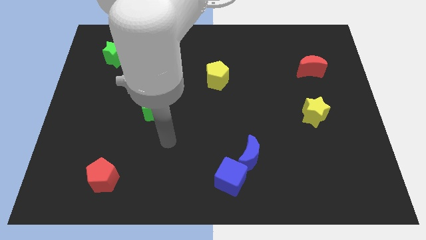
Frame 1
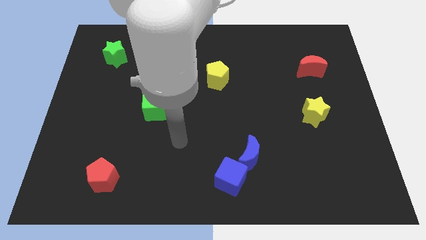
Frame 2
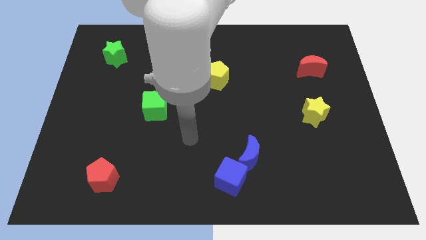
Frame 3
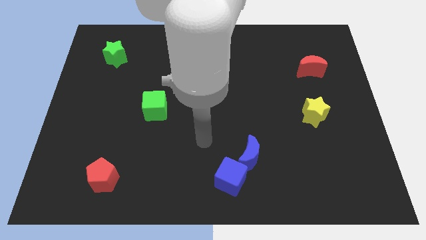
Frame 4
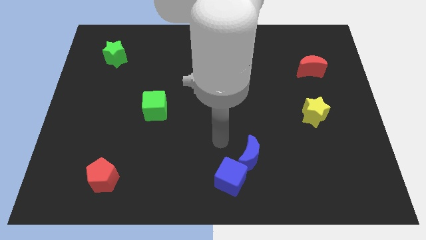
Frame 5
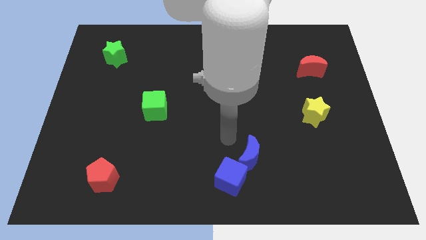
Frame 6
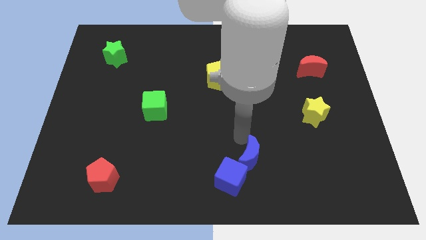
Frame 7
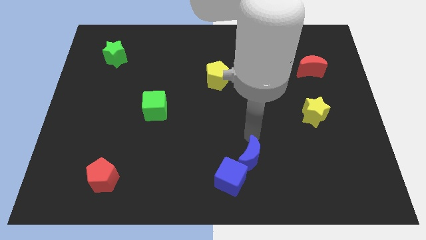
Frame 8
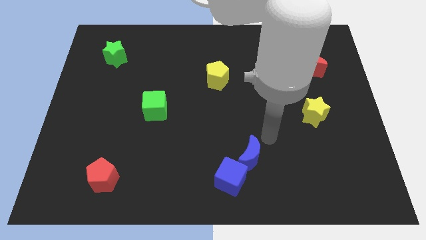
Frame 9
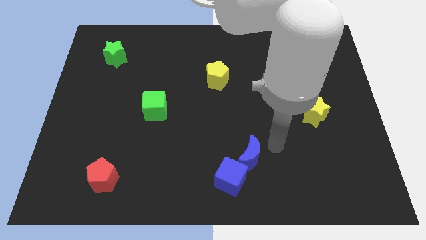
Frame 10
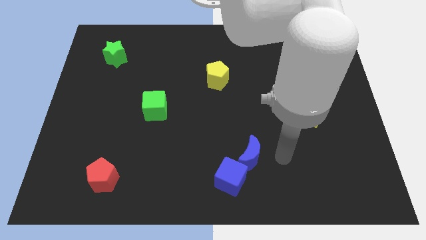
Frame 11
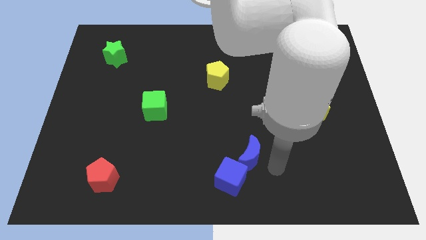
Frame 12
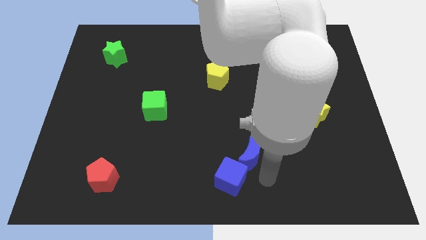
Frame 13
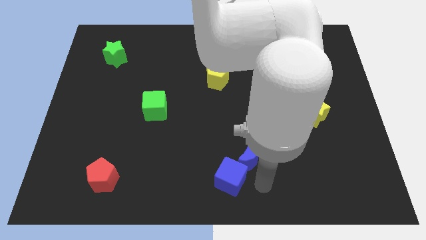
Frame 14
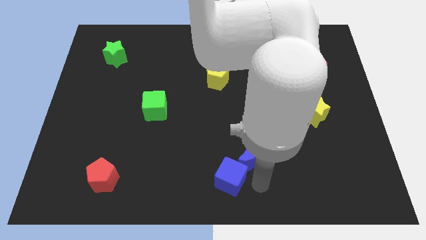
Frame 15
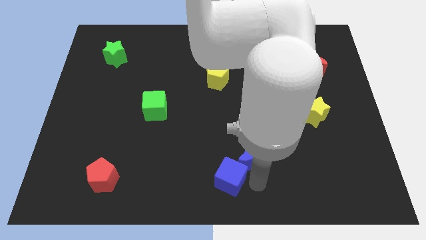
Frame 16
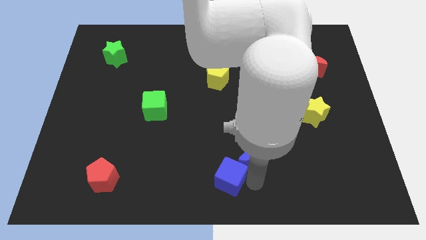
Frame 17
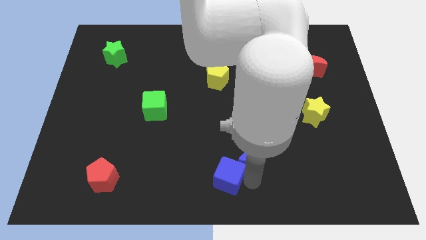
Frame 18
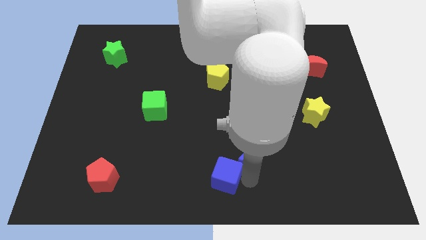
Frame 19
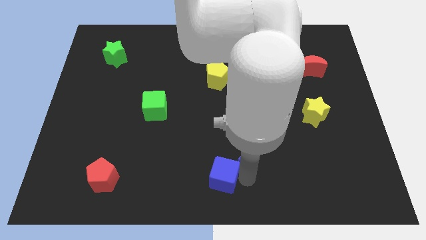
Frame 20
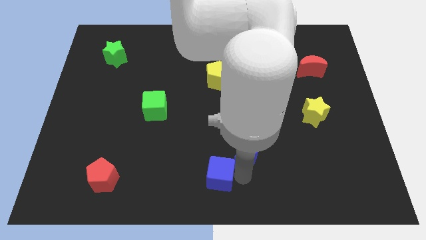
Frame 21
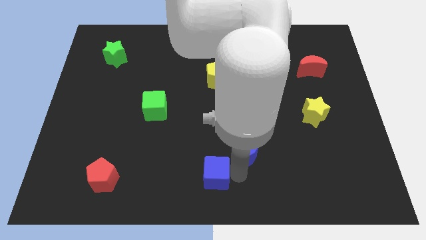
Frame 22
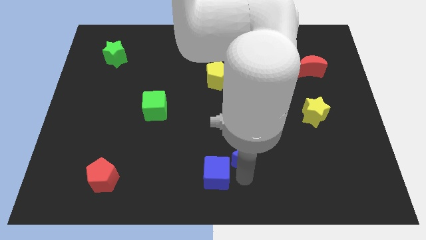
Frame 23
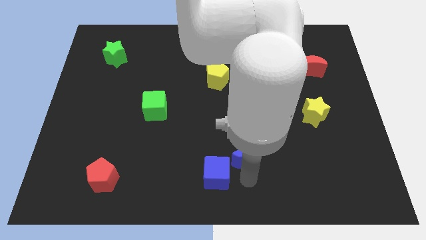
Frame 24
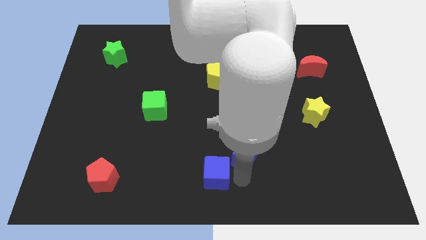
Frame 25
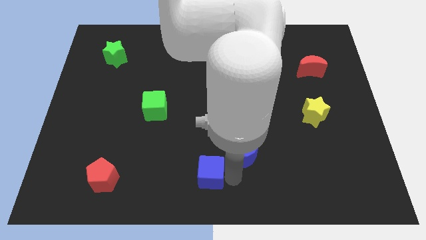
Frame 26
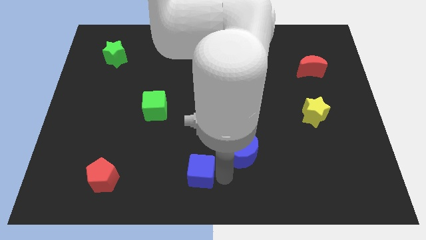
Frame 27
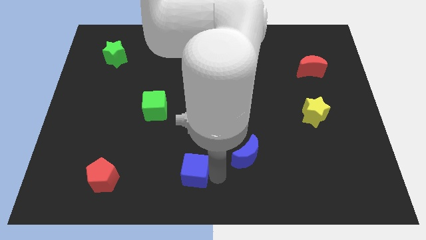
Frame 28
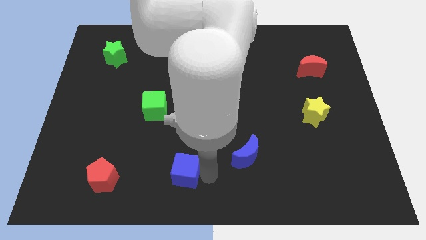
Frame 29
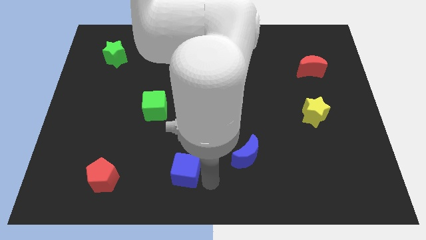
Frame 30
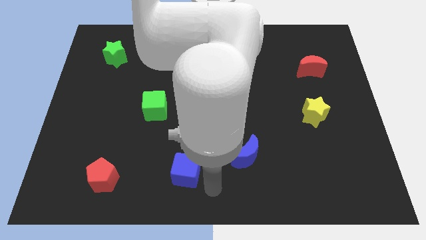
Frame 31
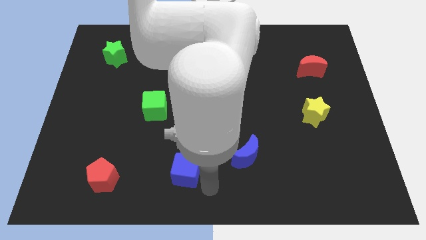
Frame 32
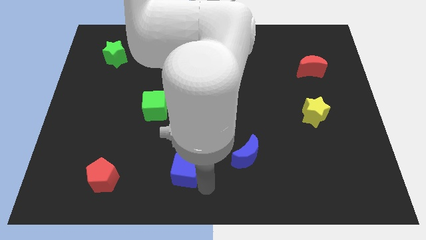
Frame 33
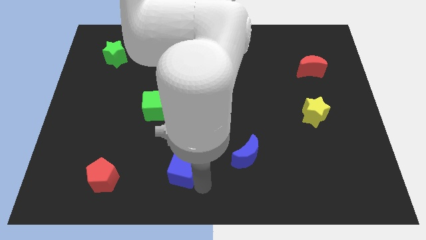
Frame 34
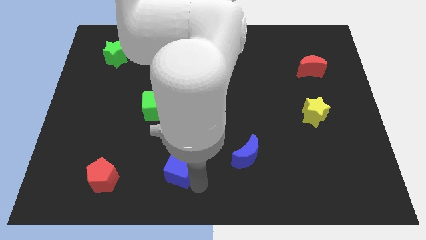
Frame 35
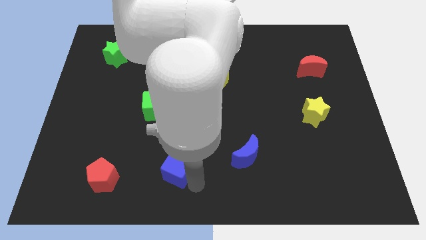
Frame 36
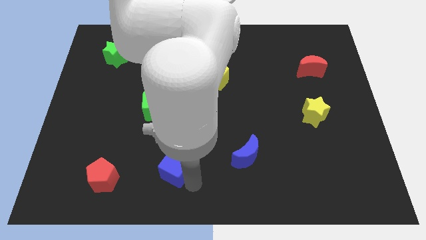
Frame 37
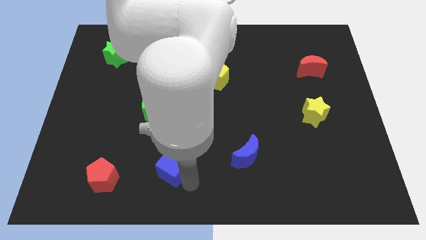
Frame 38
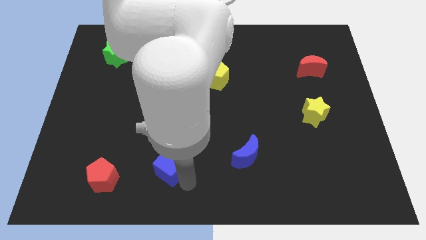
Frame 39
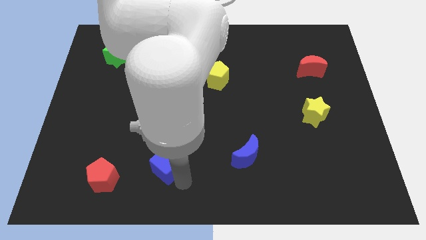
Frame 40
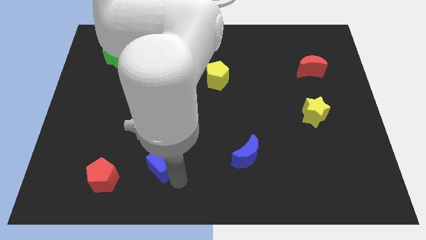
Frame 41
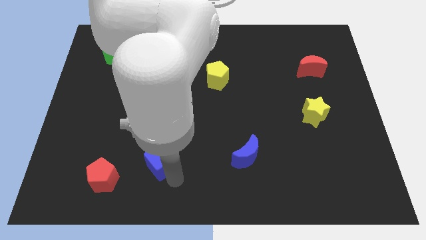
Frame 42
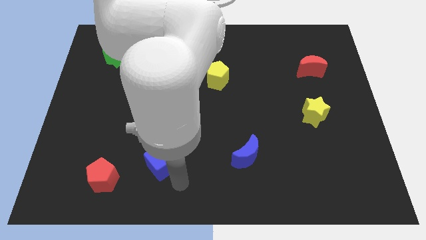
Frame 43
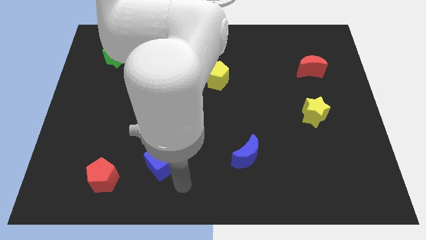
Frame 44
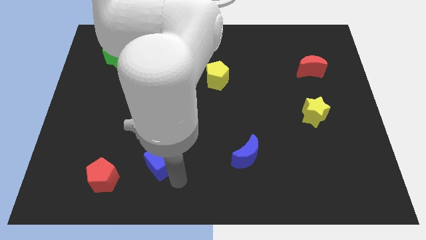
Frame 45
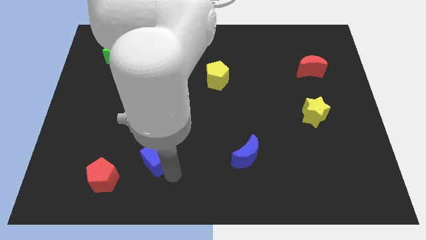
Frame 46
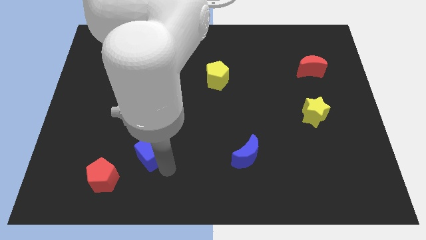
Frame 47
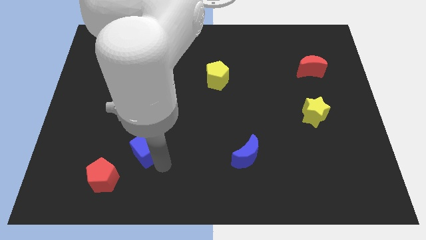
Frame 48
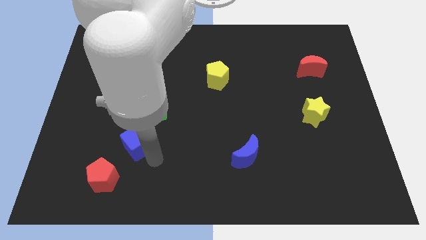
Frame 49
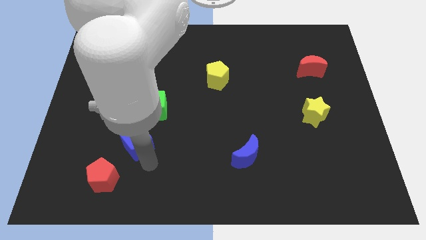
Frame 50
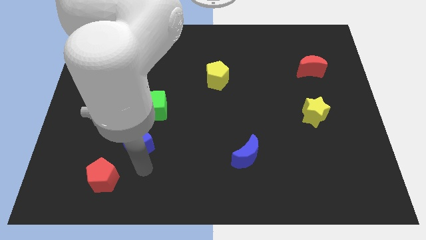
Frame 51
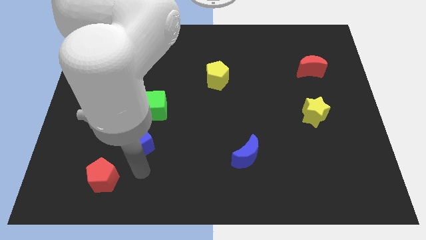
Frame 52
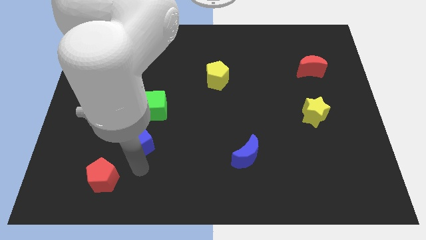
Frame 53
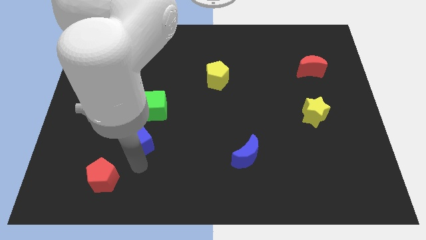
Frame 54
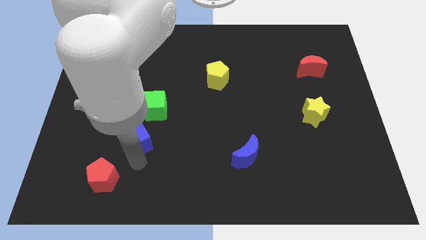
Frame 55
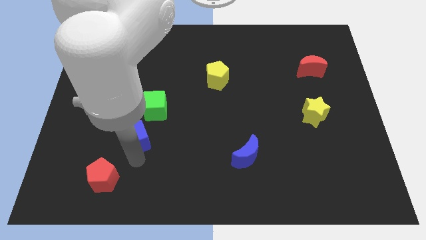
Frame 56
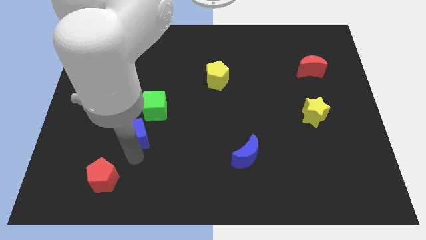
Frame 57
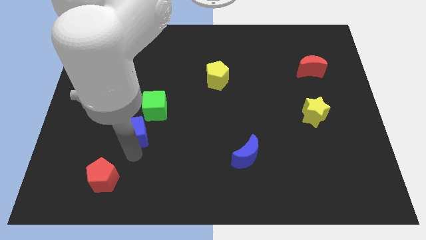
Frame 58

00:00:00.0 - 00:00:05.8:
push the blue cube upwards and left diagonally

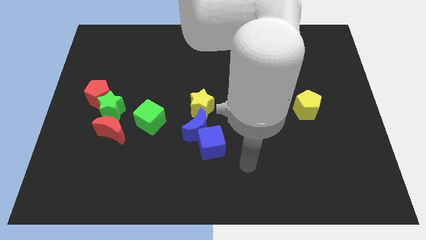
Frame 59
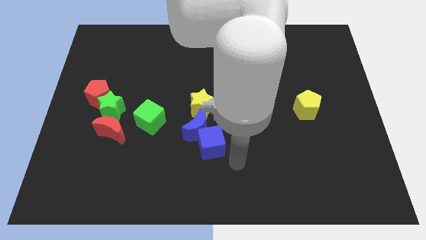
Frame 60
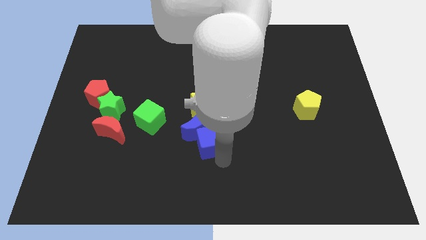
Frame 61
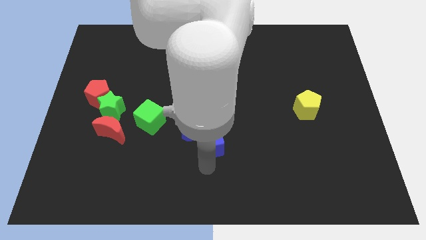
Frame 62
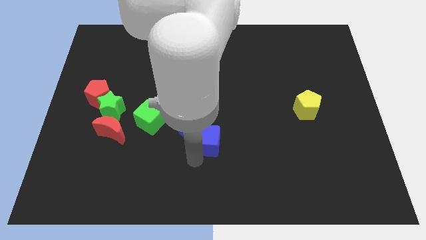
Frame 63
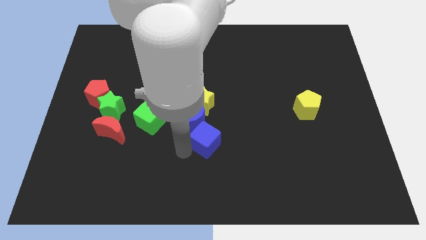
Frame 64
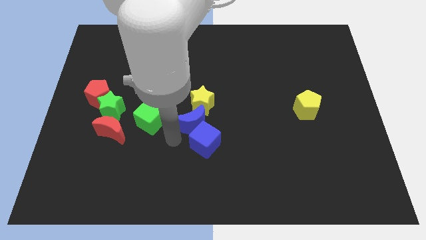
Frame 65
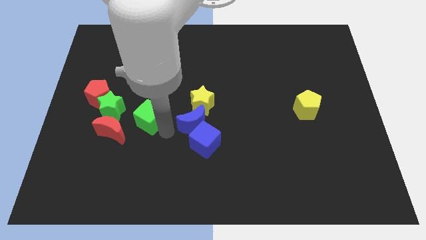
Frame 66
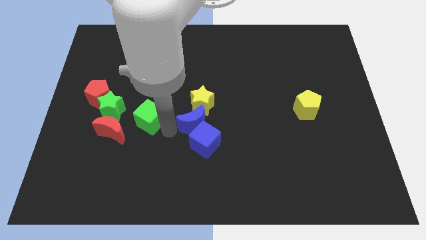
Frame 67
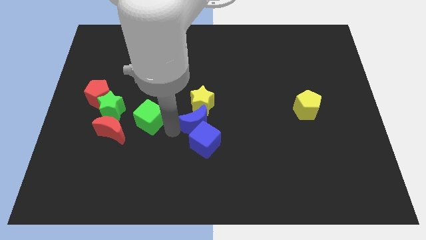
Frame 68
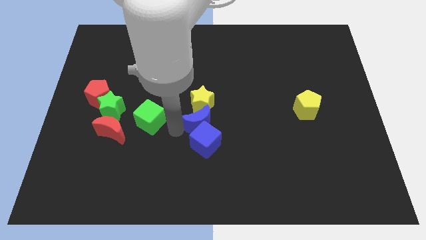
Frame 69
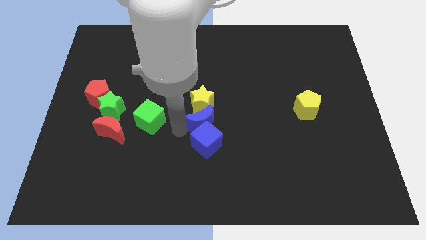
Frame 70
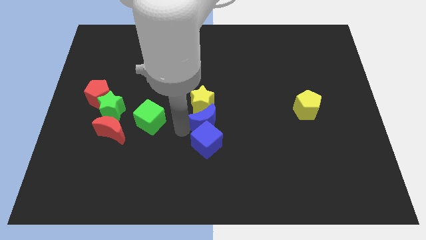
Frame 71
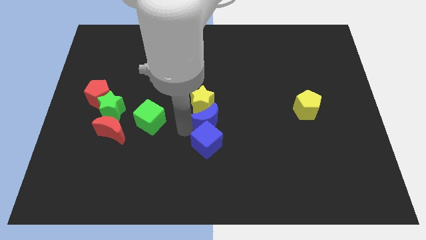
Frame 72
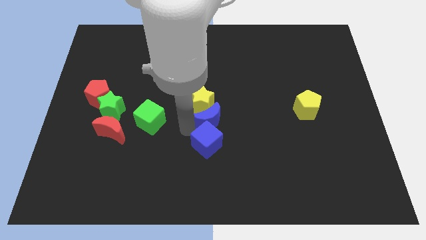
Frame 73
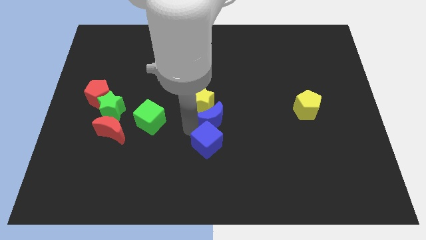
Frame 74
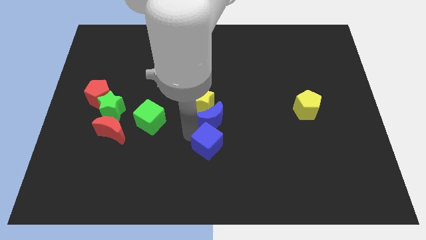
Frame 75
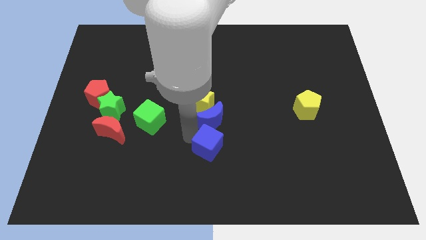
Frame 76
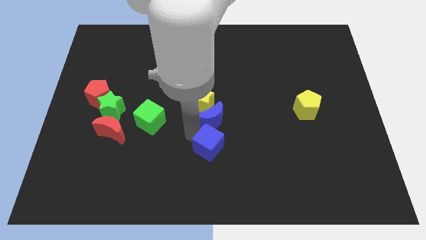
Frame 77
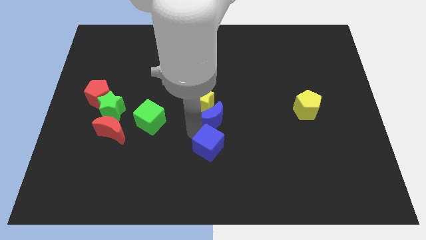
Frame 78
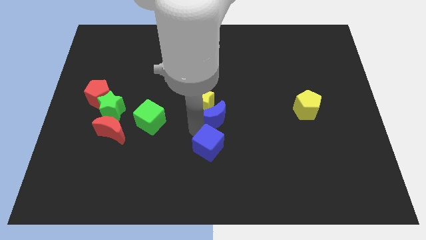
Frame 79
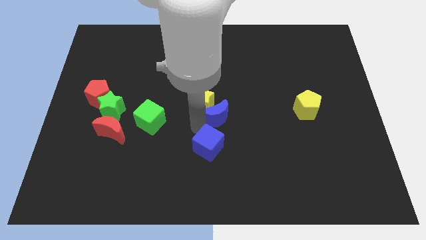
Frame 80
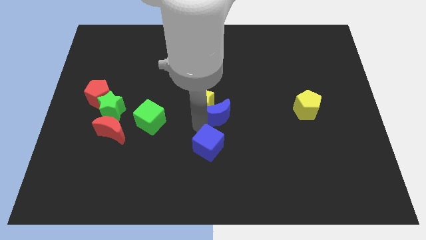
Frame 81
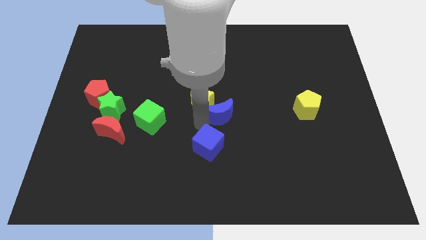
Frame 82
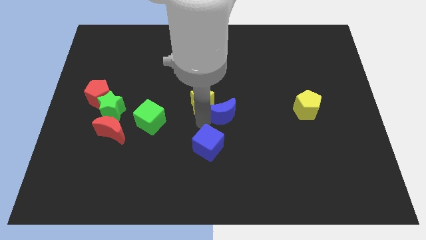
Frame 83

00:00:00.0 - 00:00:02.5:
push the blue moon a little upwards and to the right diagonally
